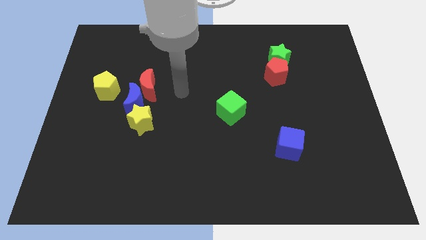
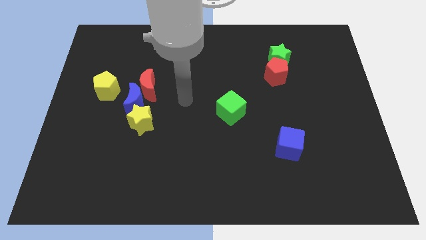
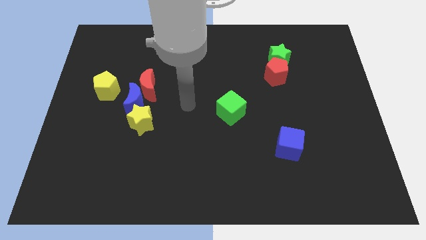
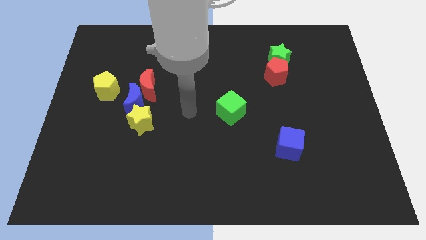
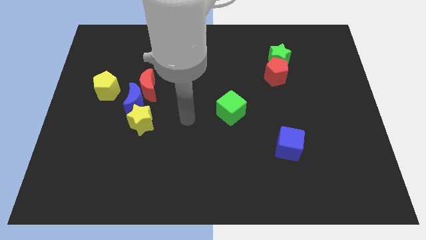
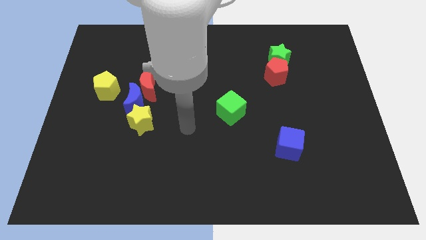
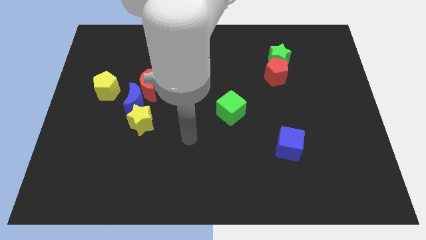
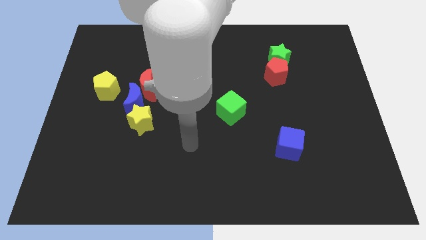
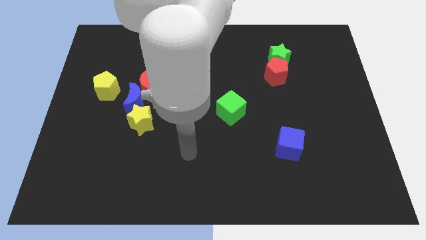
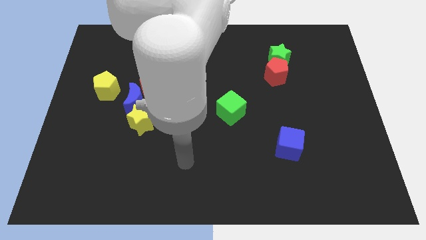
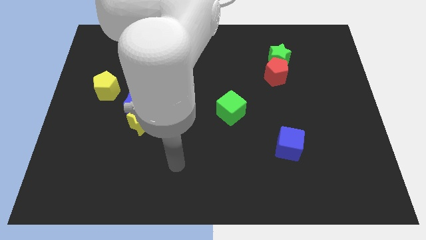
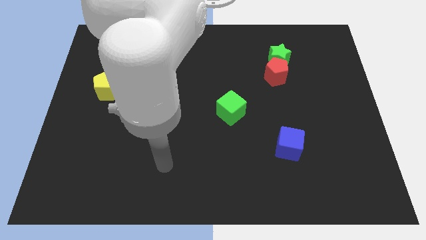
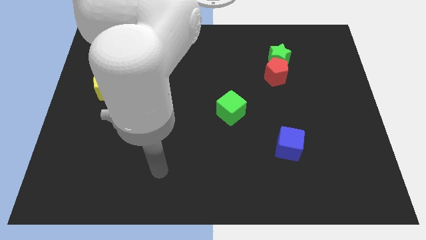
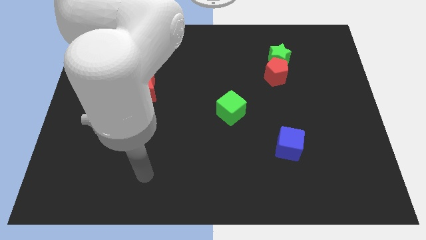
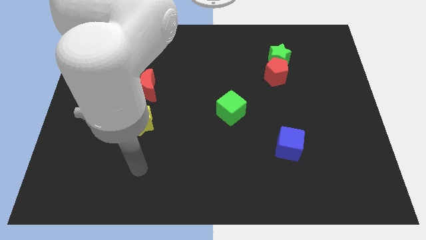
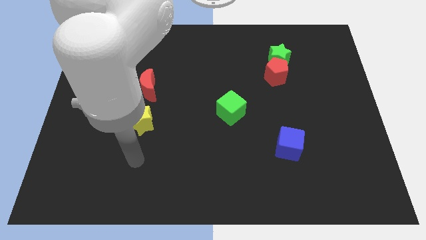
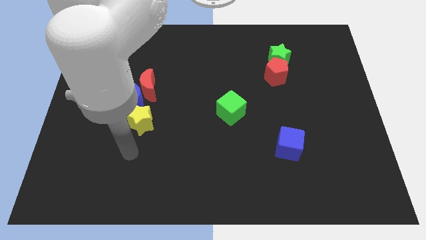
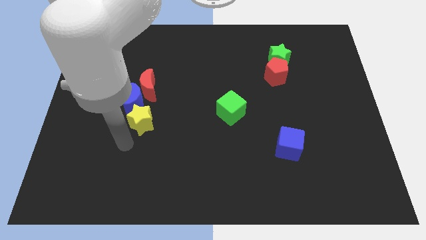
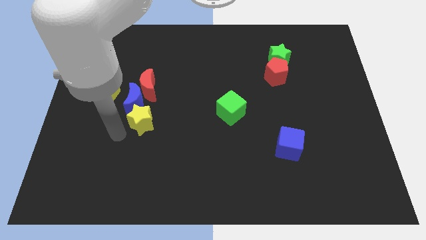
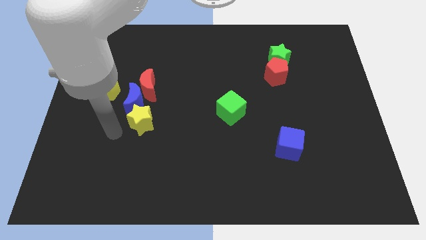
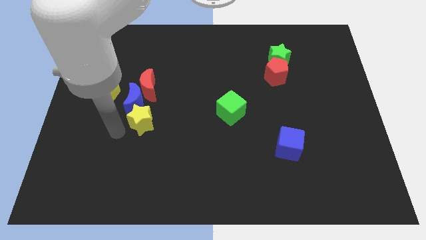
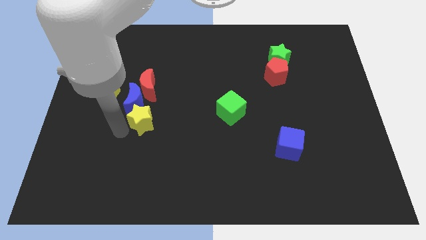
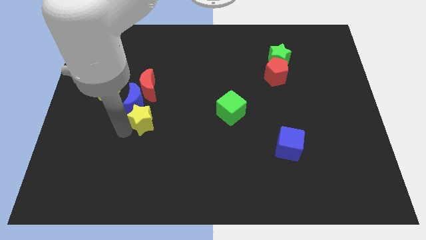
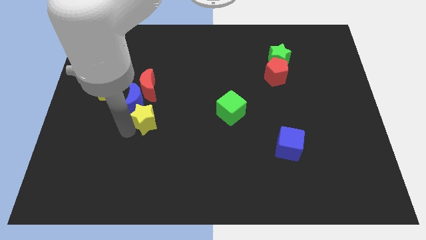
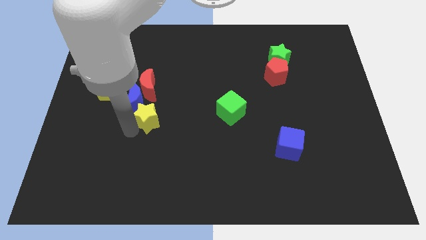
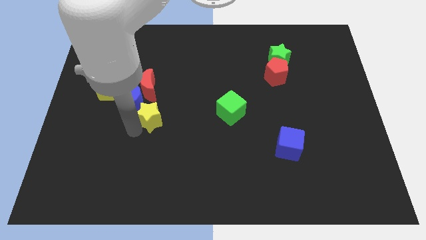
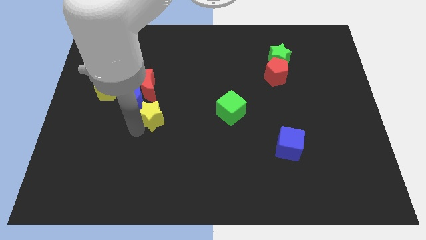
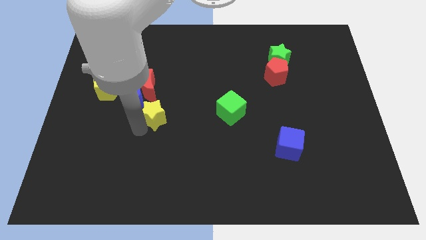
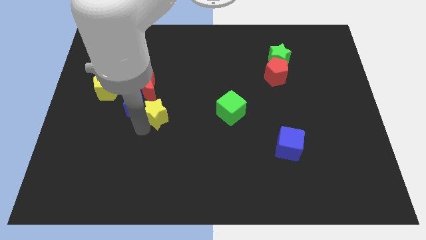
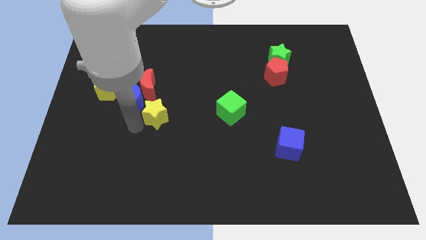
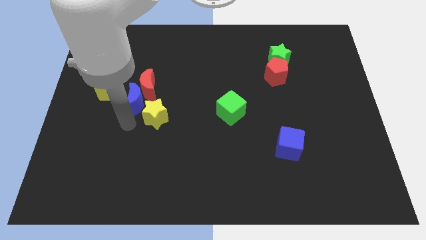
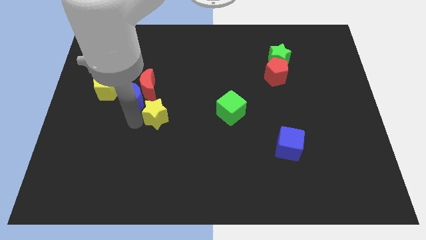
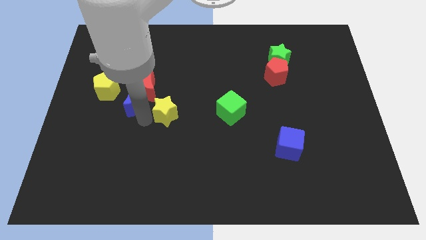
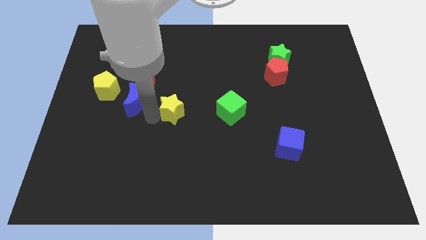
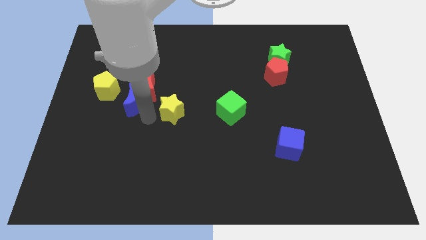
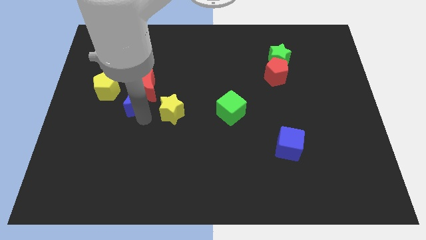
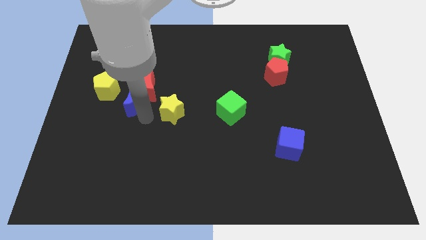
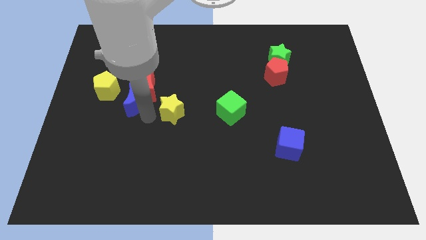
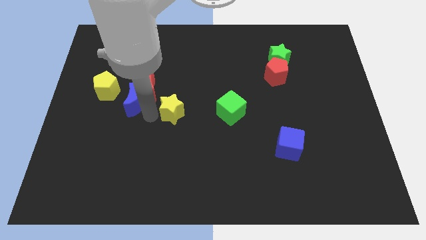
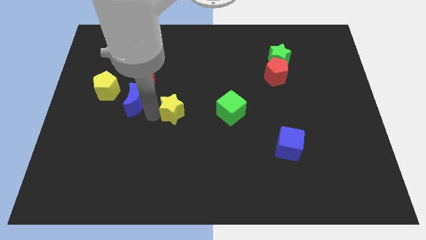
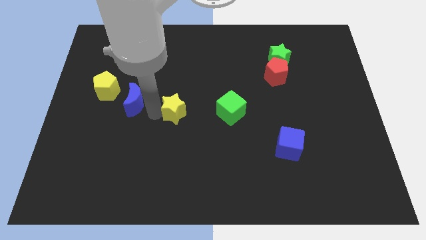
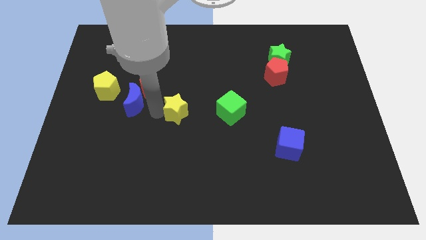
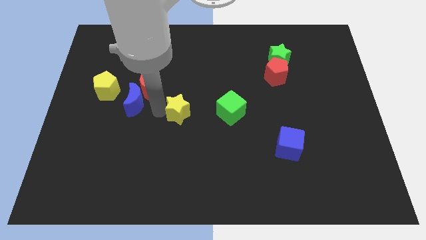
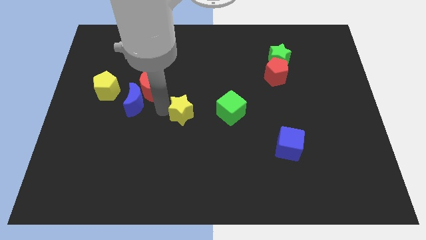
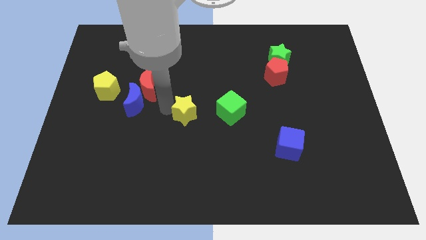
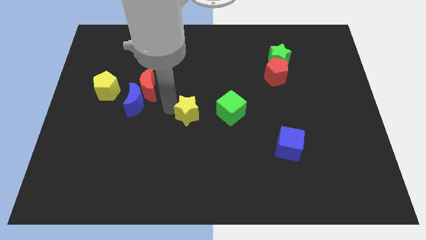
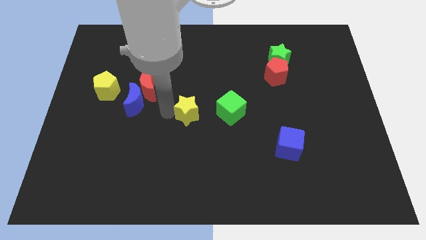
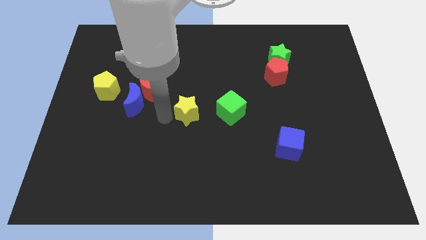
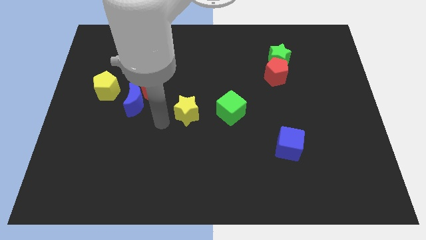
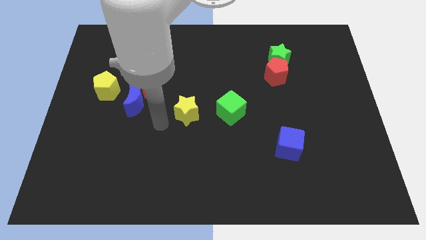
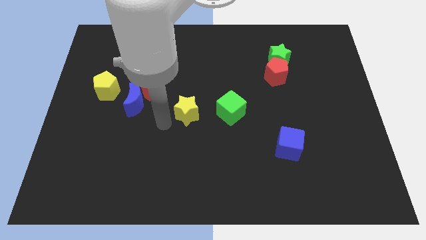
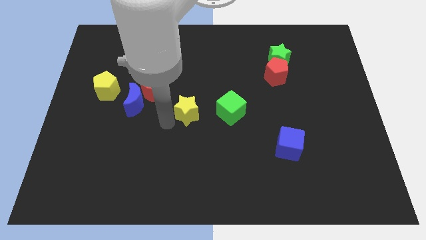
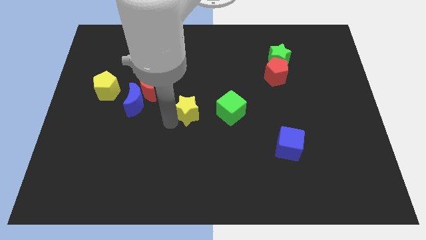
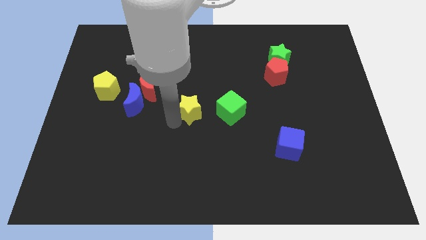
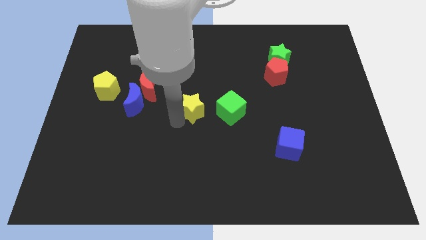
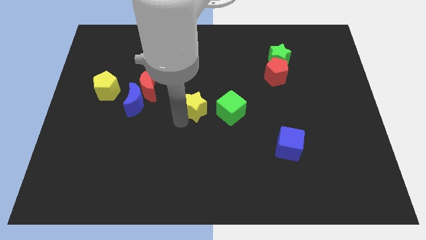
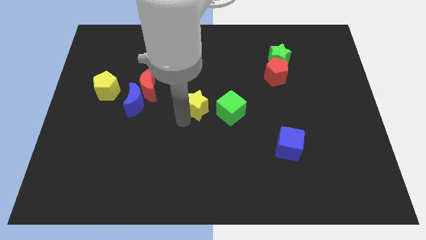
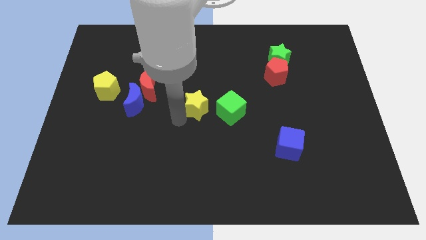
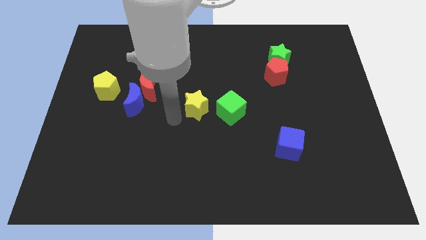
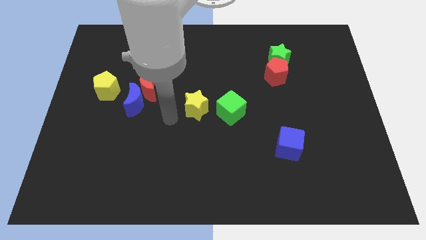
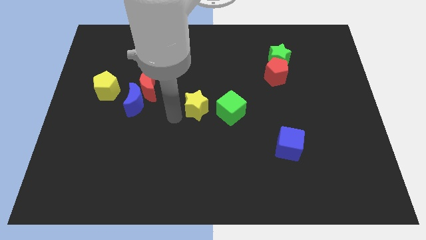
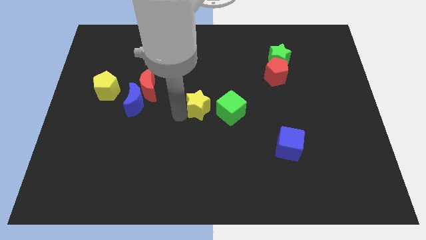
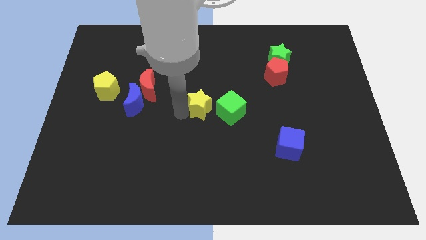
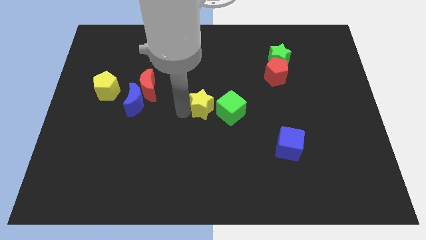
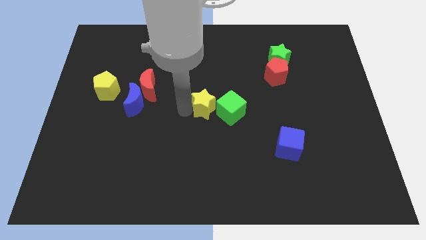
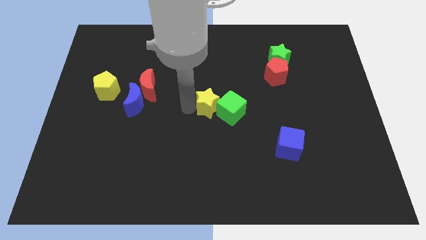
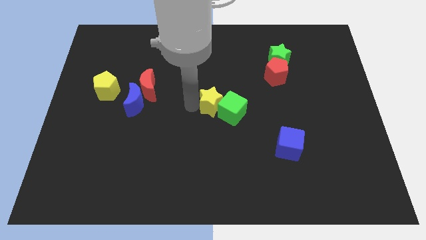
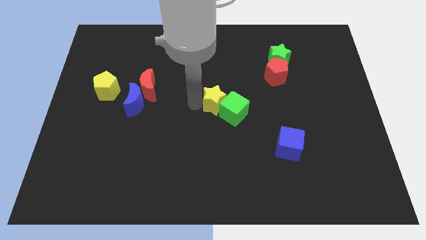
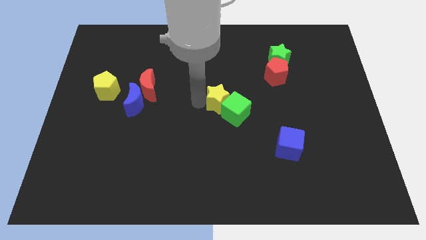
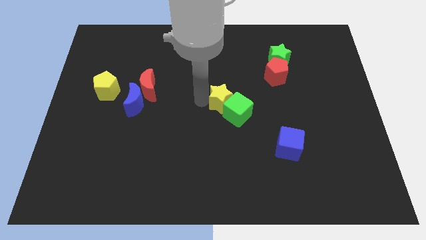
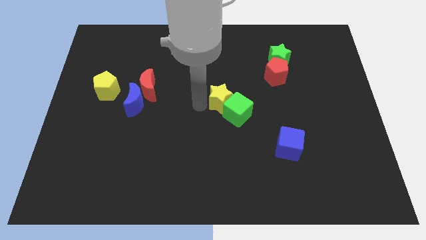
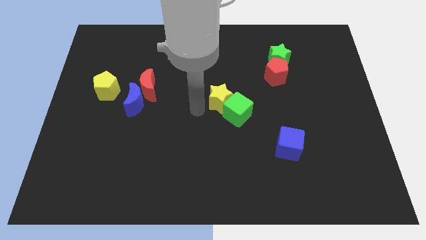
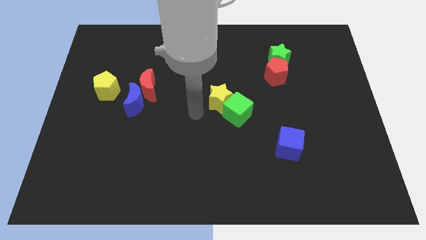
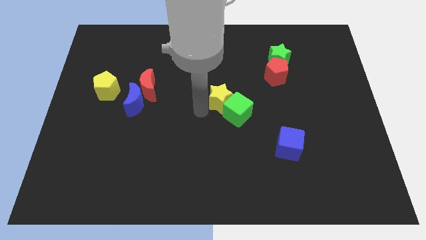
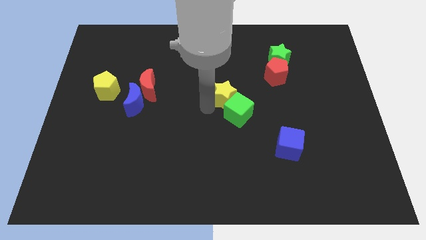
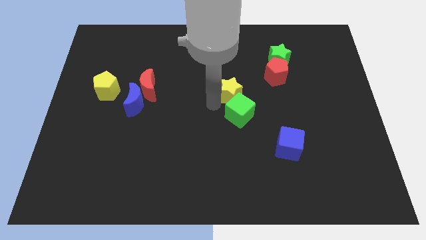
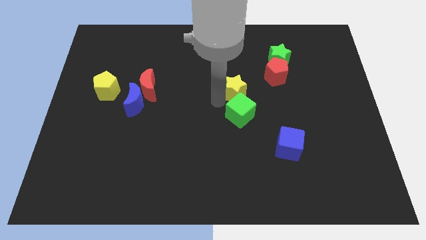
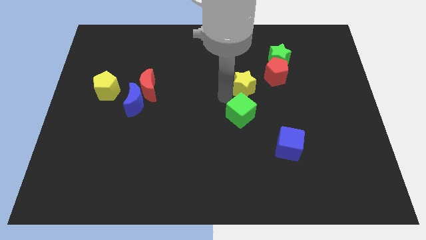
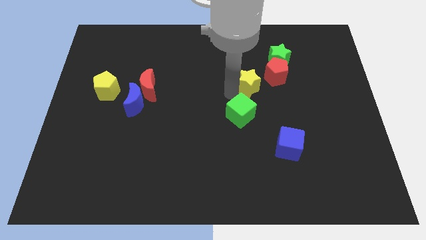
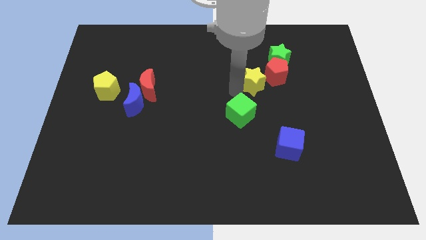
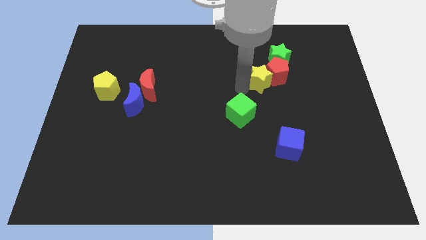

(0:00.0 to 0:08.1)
push the yellow star towards the red pentagon
